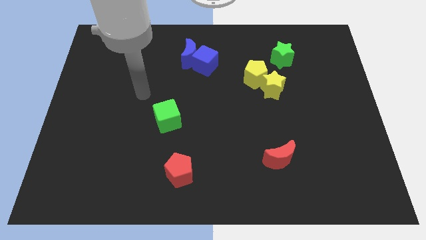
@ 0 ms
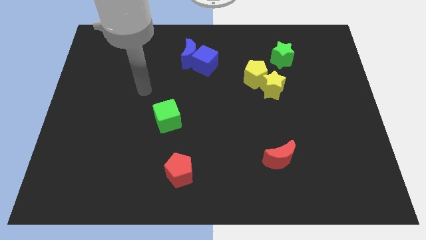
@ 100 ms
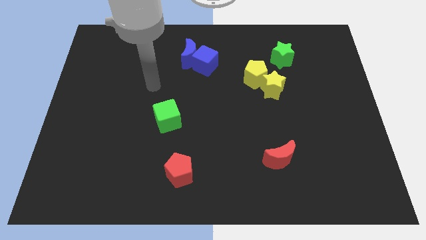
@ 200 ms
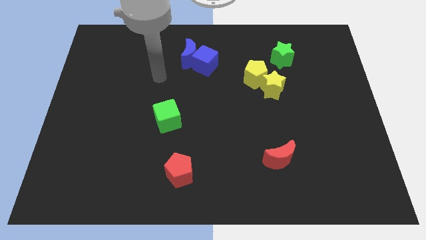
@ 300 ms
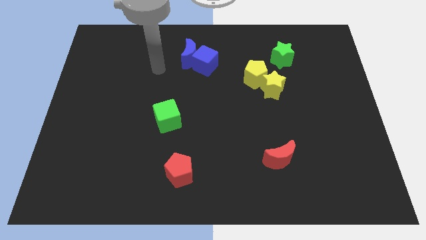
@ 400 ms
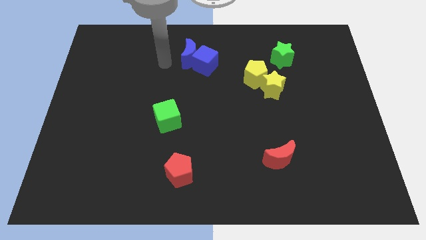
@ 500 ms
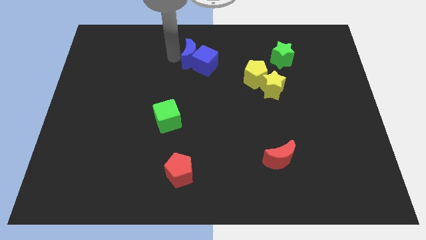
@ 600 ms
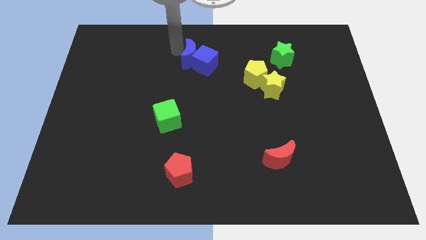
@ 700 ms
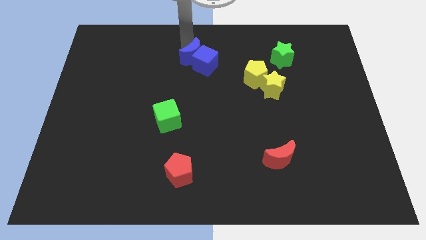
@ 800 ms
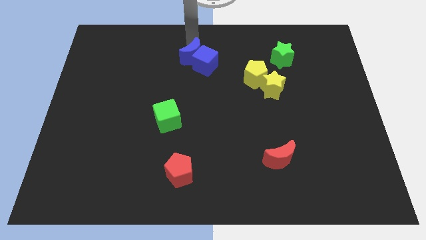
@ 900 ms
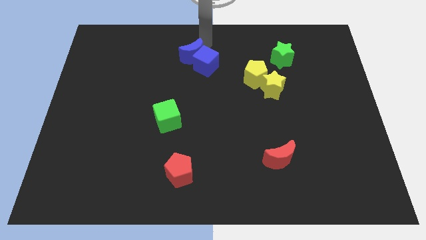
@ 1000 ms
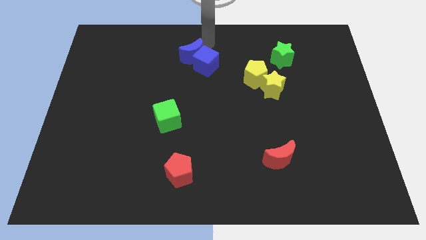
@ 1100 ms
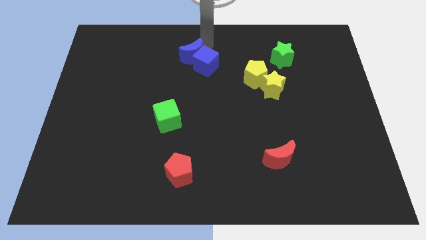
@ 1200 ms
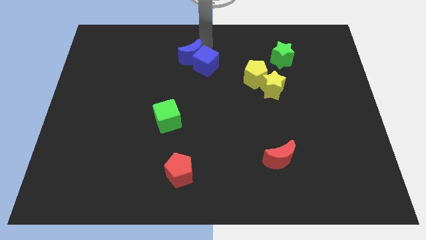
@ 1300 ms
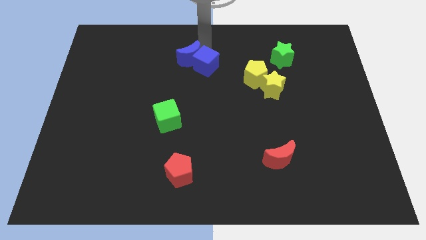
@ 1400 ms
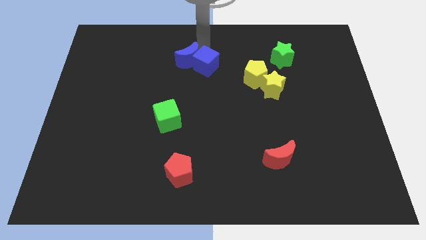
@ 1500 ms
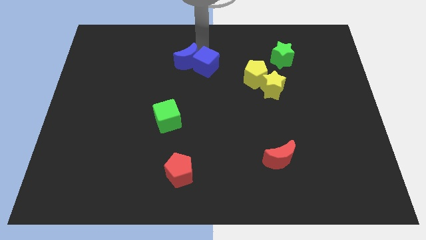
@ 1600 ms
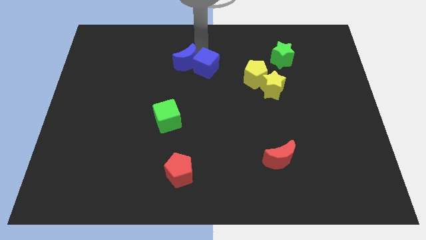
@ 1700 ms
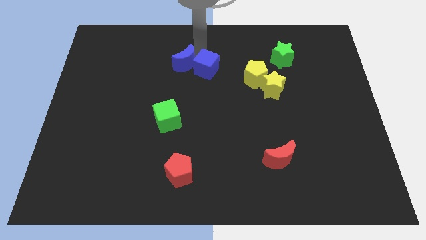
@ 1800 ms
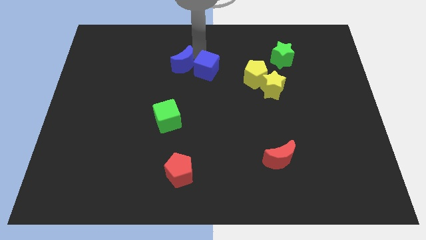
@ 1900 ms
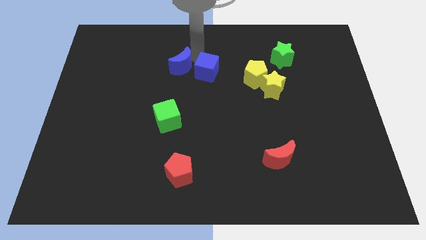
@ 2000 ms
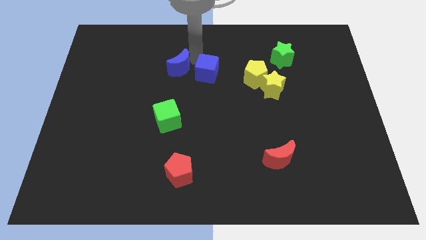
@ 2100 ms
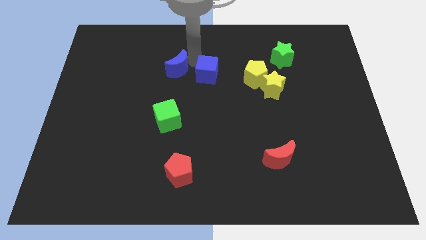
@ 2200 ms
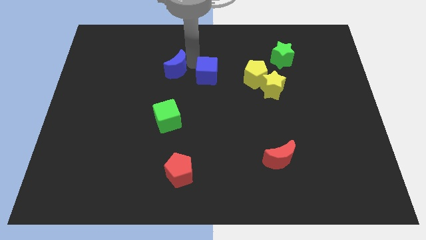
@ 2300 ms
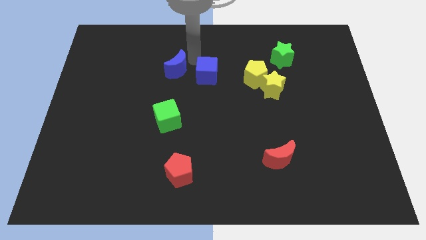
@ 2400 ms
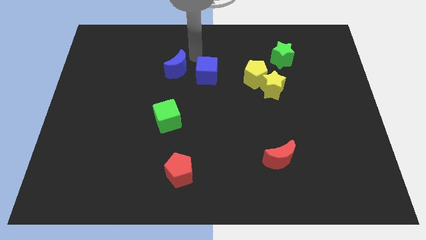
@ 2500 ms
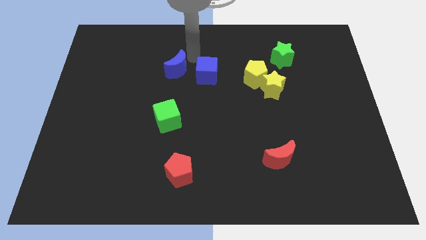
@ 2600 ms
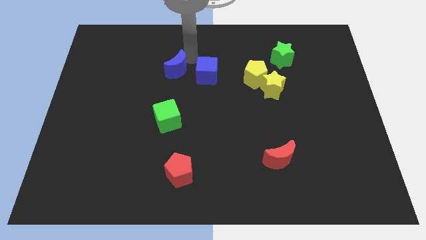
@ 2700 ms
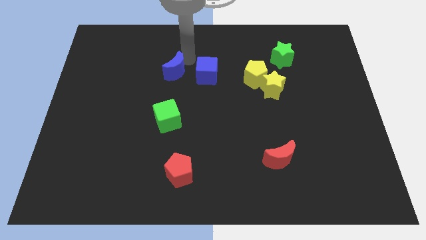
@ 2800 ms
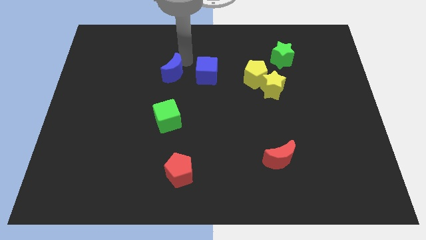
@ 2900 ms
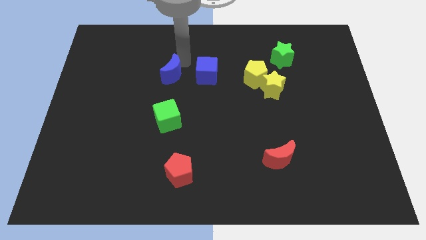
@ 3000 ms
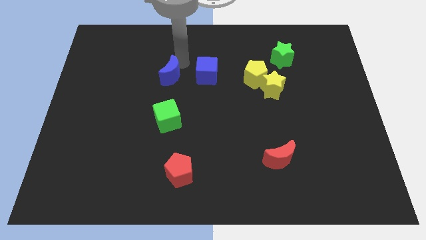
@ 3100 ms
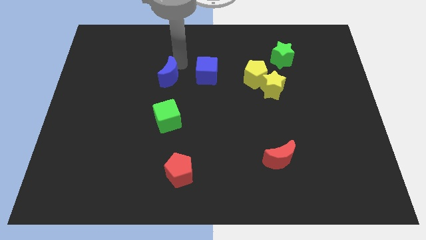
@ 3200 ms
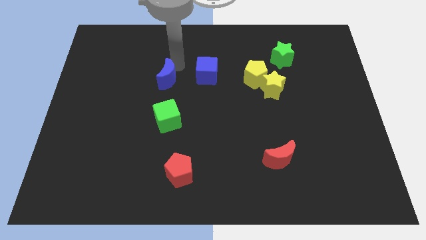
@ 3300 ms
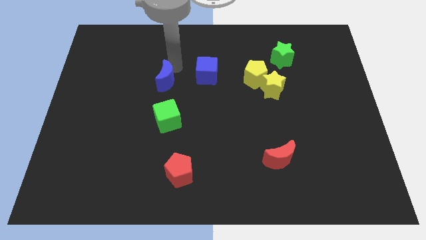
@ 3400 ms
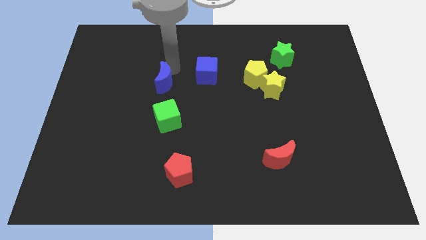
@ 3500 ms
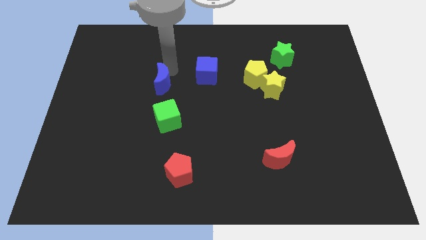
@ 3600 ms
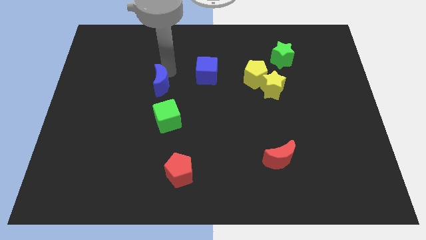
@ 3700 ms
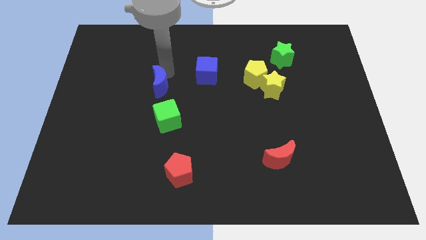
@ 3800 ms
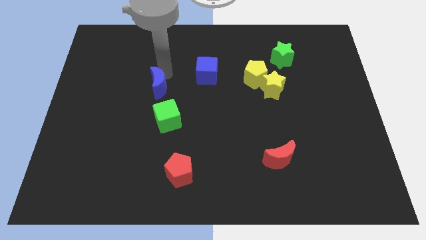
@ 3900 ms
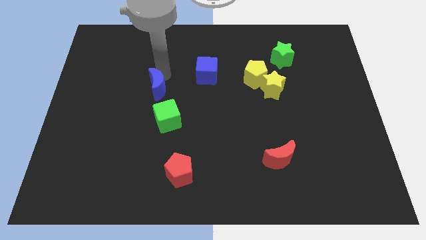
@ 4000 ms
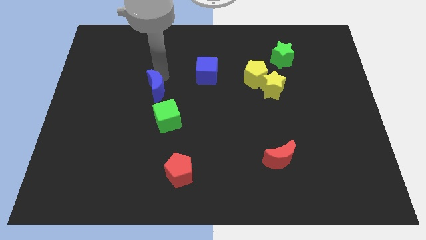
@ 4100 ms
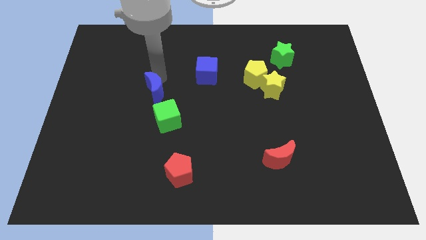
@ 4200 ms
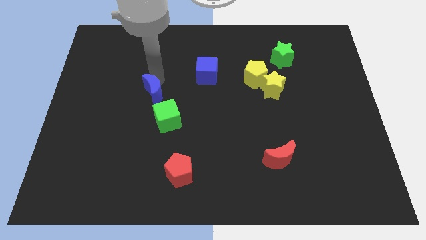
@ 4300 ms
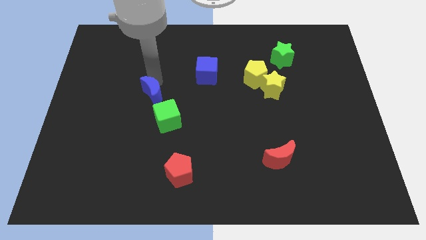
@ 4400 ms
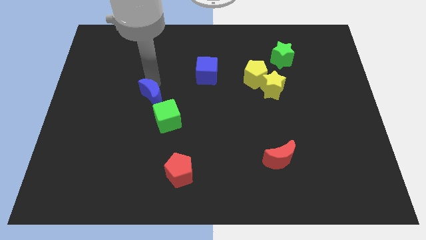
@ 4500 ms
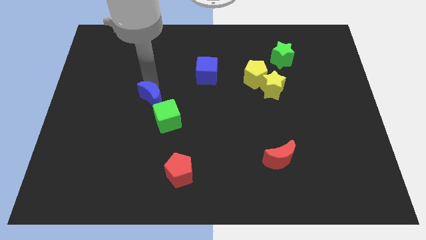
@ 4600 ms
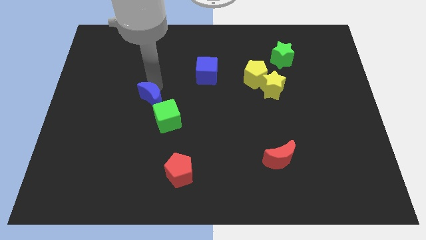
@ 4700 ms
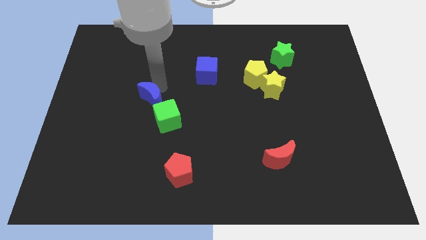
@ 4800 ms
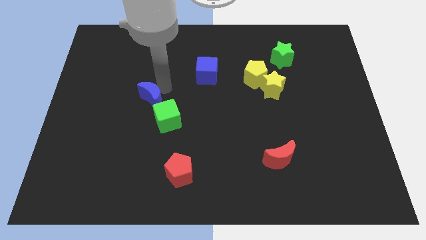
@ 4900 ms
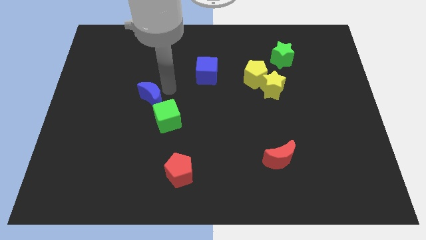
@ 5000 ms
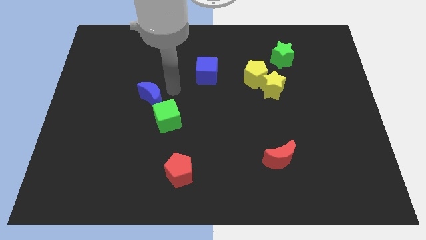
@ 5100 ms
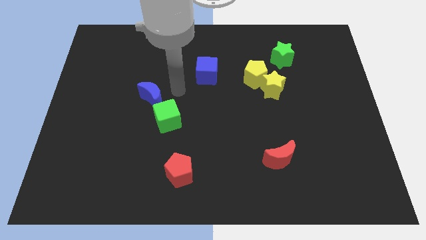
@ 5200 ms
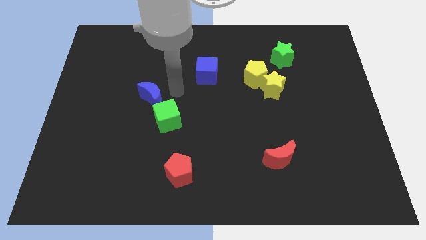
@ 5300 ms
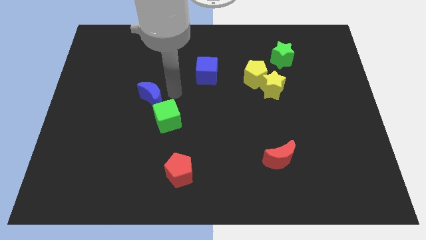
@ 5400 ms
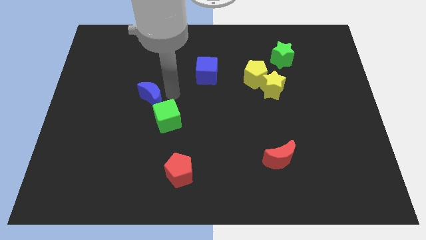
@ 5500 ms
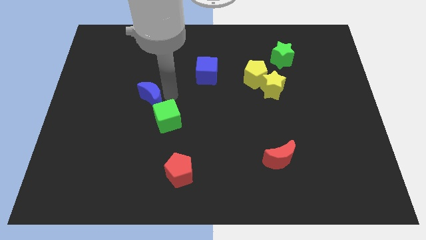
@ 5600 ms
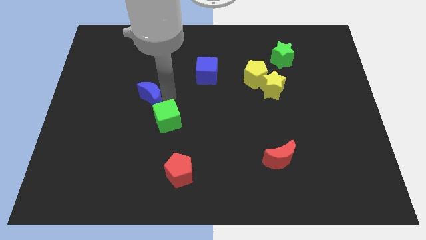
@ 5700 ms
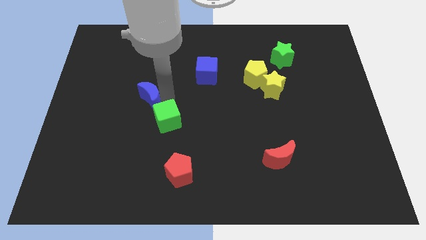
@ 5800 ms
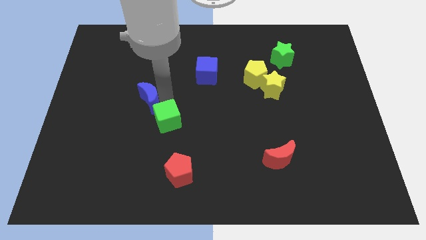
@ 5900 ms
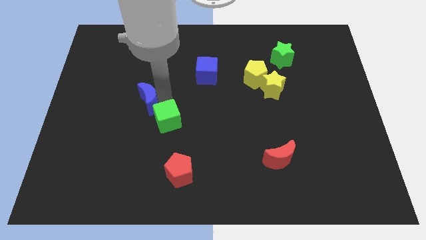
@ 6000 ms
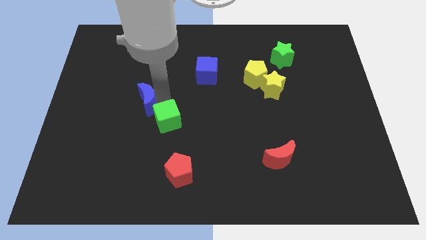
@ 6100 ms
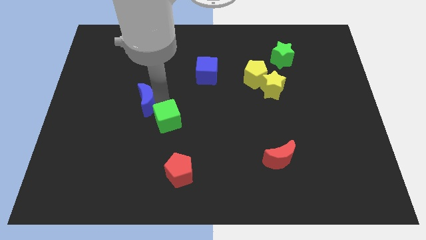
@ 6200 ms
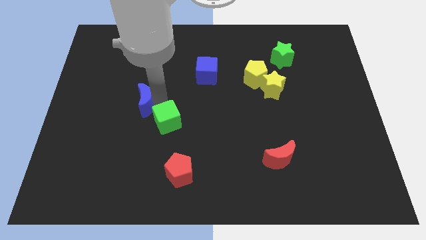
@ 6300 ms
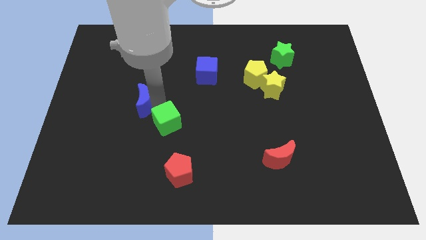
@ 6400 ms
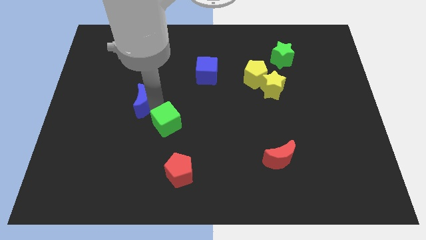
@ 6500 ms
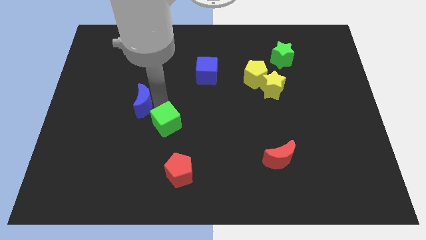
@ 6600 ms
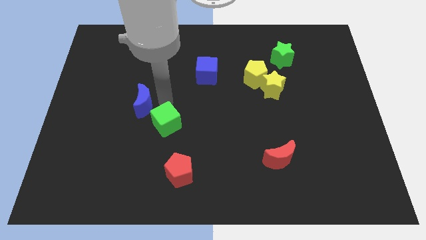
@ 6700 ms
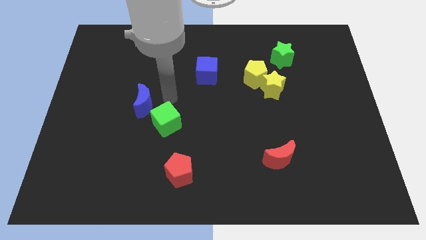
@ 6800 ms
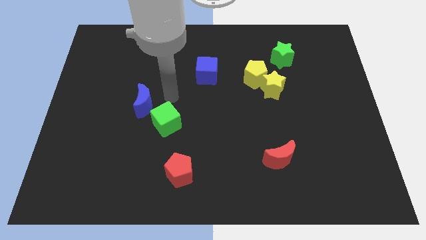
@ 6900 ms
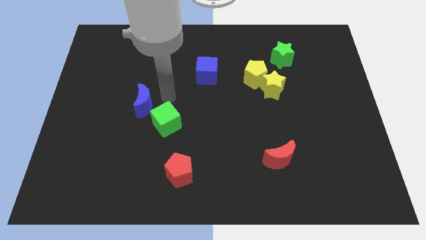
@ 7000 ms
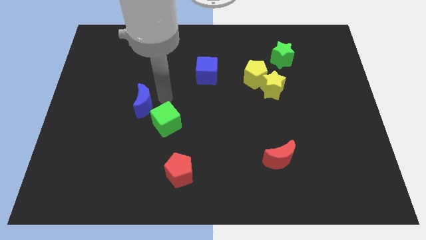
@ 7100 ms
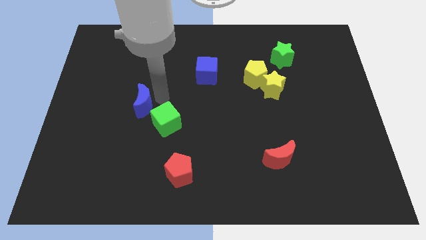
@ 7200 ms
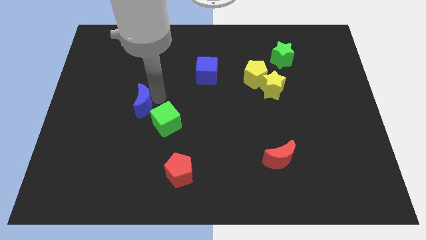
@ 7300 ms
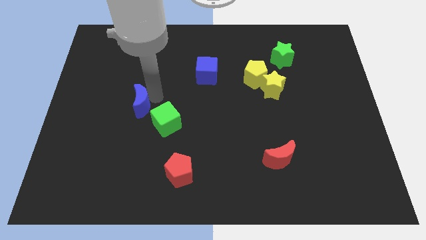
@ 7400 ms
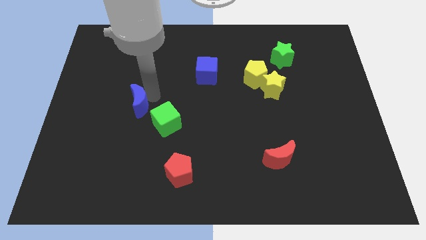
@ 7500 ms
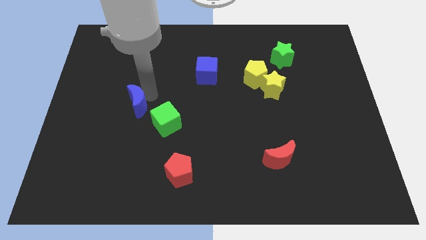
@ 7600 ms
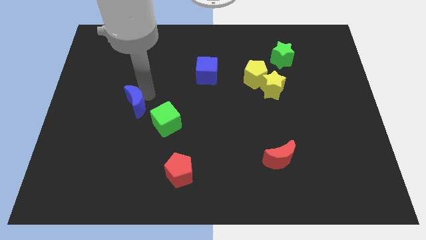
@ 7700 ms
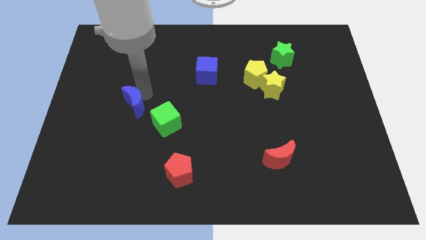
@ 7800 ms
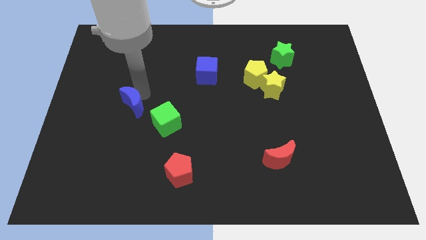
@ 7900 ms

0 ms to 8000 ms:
move the blue moon down and left diagonally

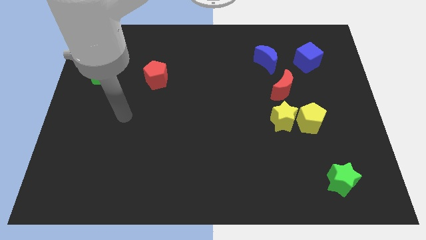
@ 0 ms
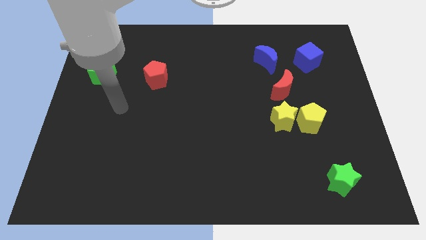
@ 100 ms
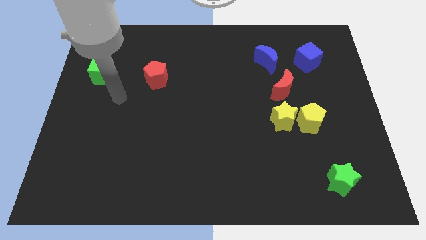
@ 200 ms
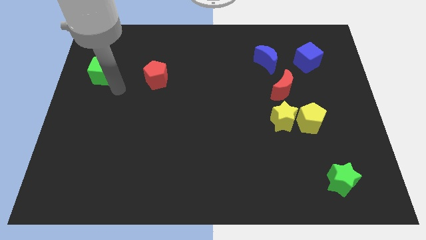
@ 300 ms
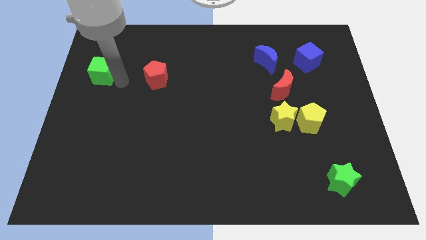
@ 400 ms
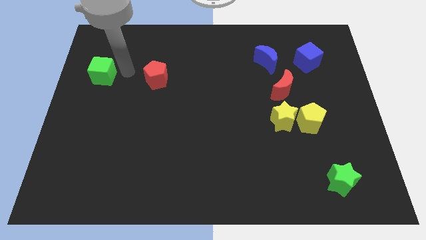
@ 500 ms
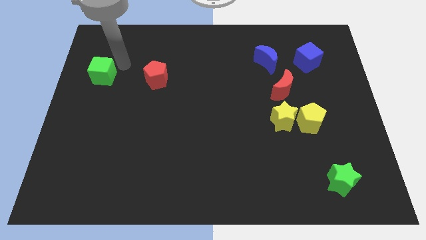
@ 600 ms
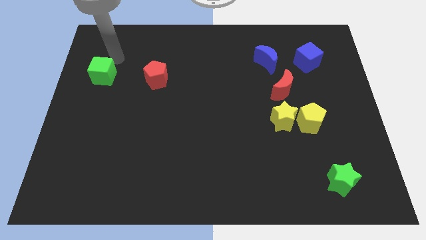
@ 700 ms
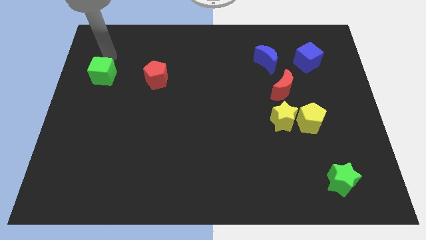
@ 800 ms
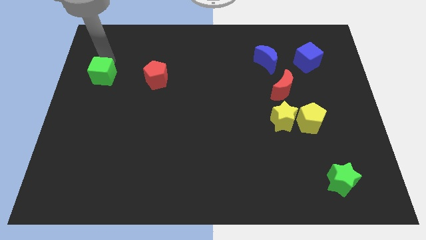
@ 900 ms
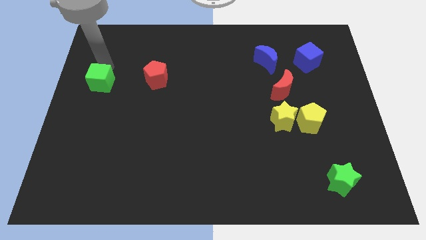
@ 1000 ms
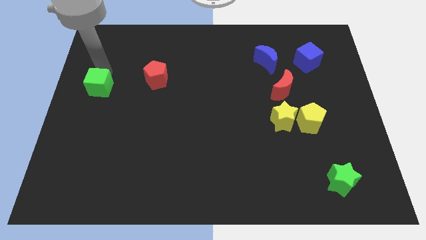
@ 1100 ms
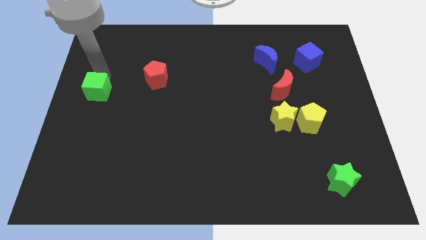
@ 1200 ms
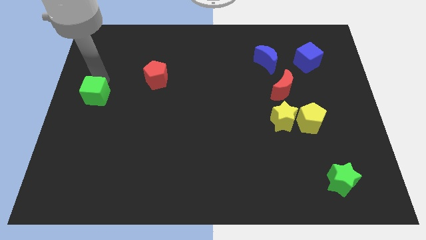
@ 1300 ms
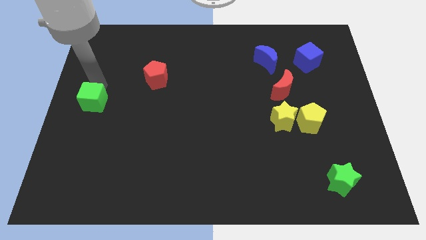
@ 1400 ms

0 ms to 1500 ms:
push the green cube slightly down
